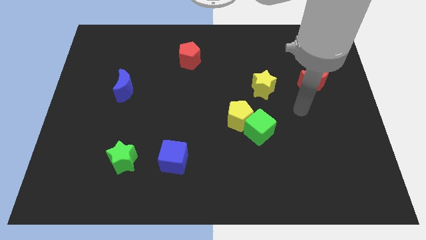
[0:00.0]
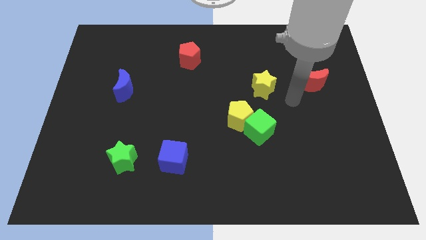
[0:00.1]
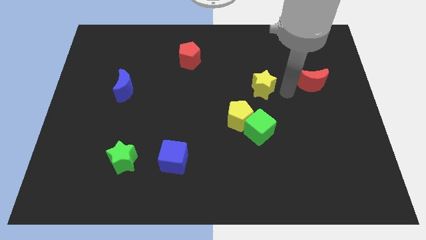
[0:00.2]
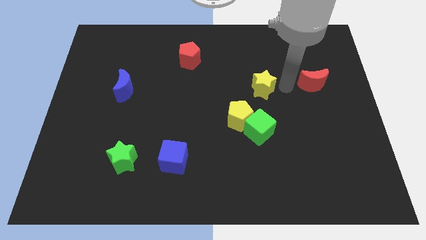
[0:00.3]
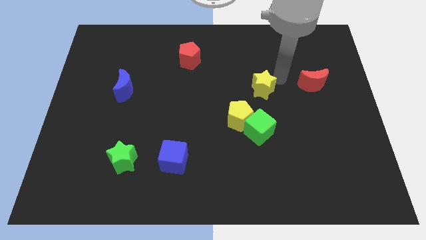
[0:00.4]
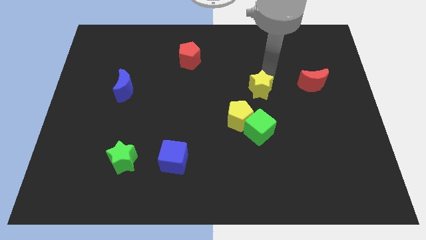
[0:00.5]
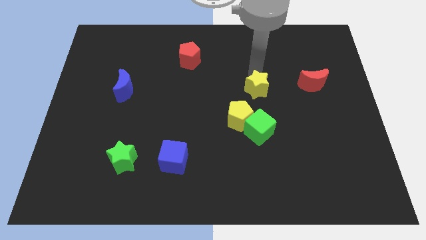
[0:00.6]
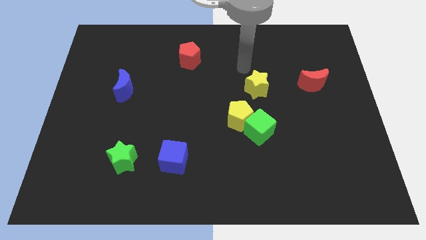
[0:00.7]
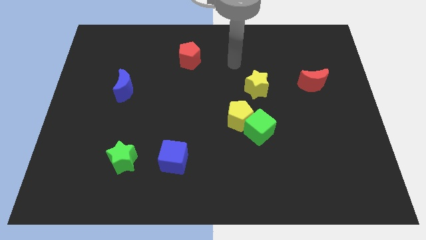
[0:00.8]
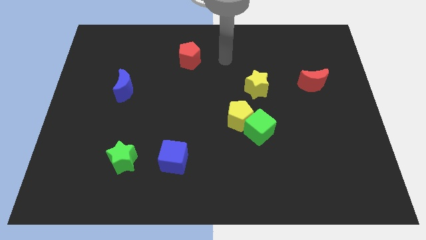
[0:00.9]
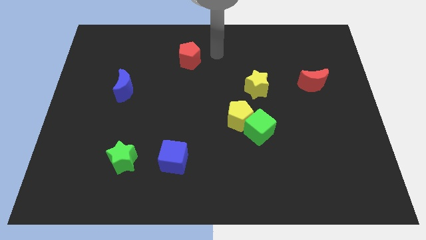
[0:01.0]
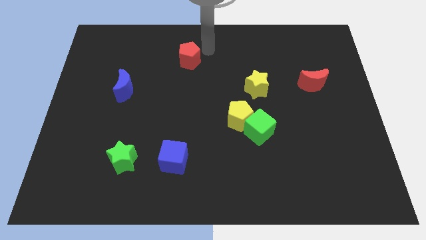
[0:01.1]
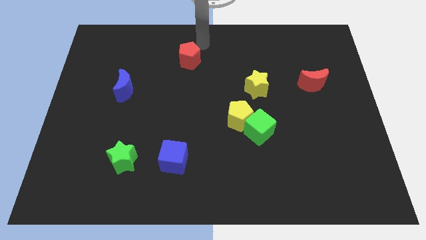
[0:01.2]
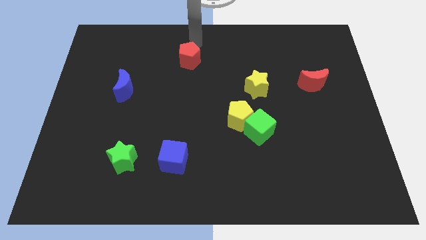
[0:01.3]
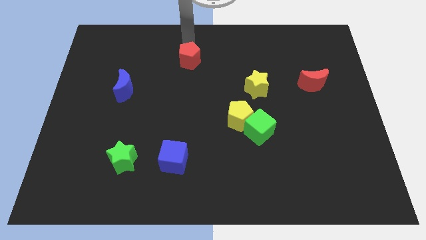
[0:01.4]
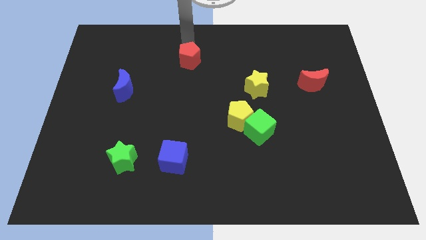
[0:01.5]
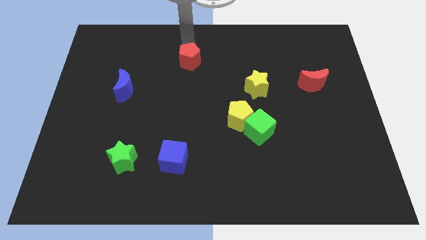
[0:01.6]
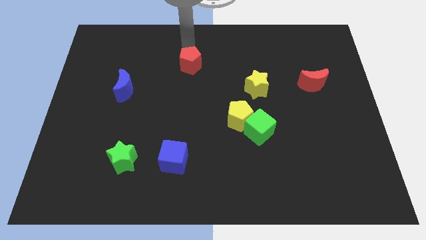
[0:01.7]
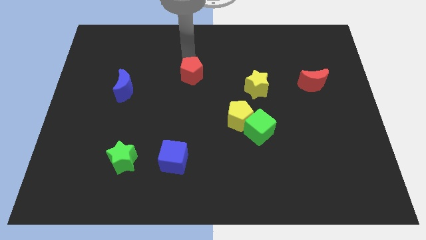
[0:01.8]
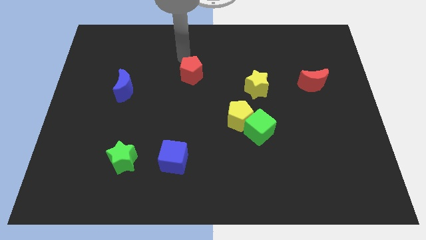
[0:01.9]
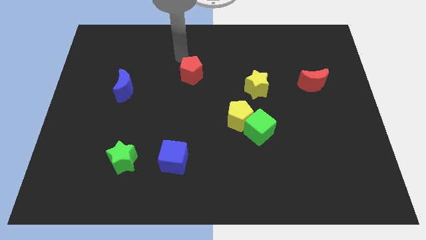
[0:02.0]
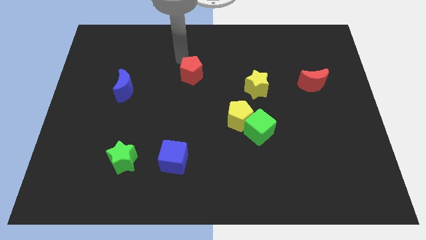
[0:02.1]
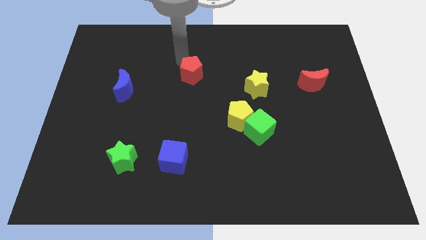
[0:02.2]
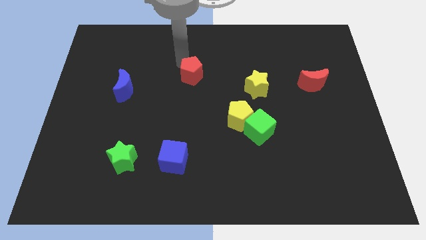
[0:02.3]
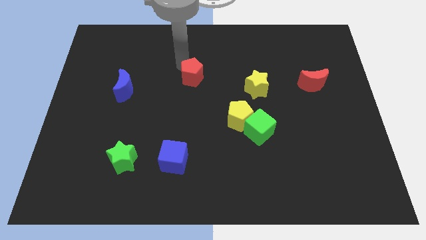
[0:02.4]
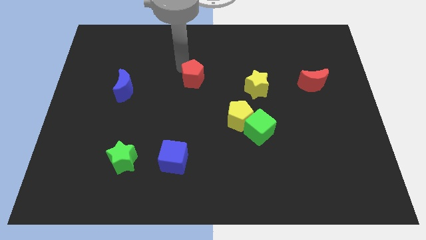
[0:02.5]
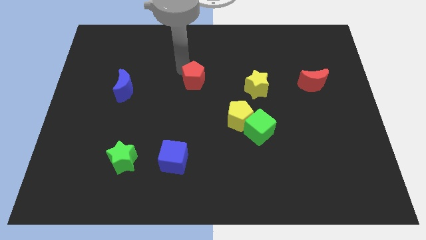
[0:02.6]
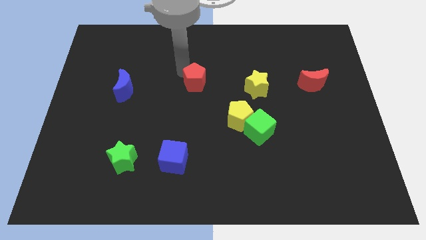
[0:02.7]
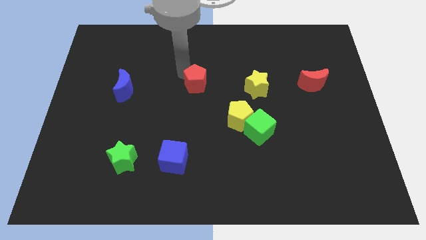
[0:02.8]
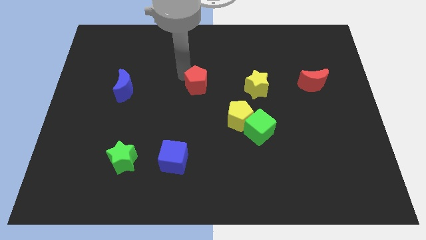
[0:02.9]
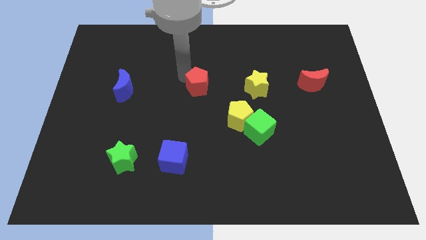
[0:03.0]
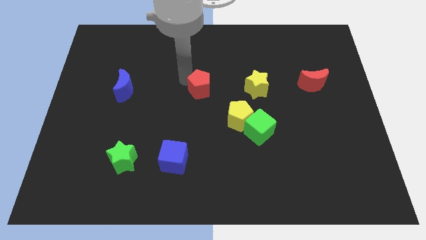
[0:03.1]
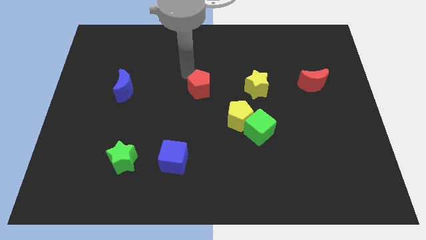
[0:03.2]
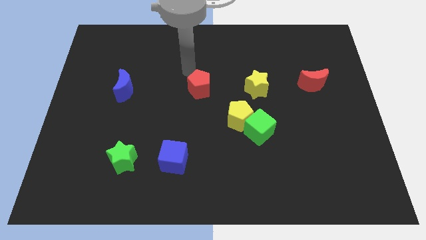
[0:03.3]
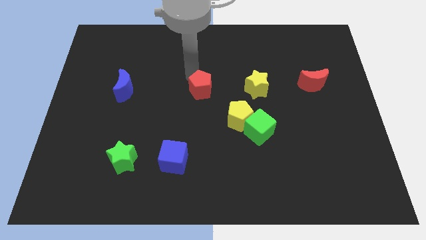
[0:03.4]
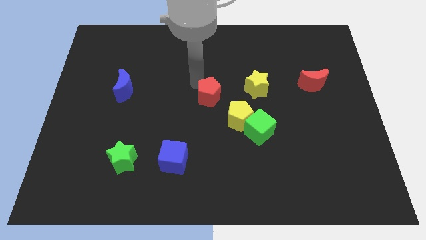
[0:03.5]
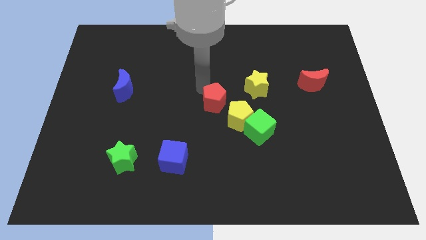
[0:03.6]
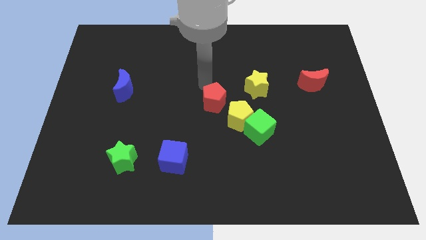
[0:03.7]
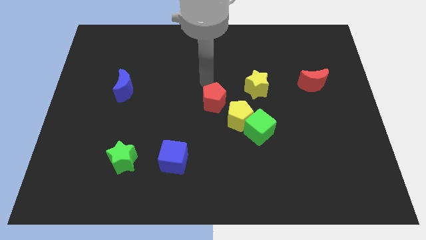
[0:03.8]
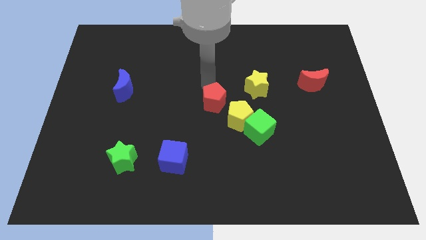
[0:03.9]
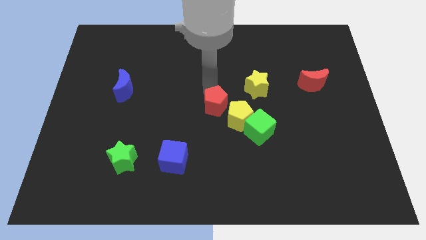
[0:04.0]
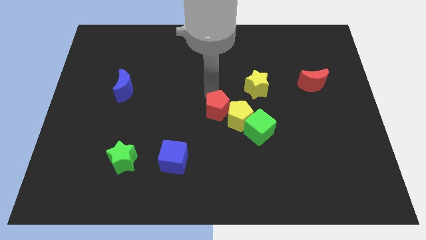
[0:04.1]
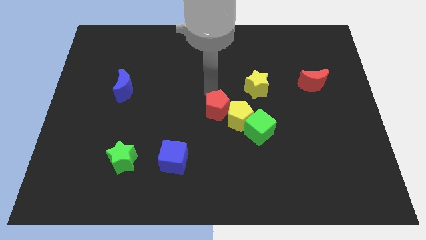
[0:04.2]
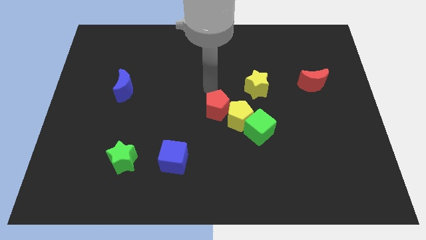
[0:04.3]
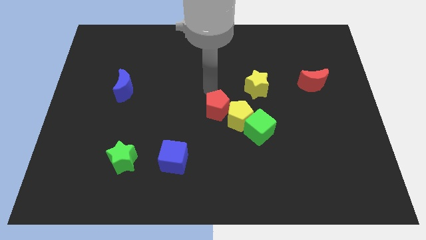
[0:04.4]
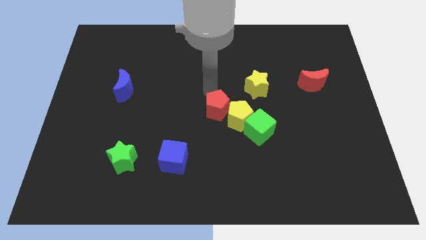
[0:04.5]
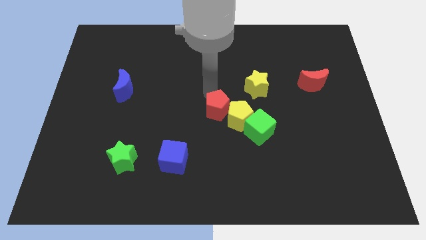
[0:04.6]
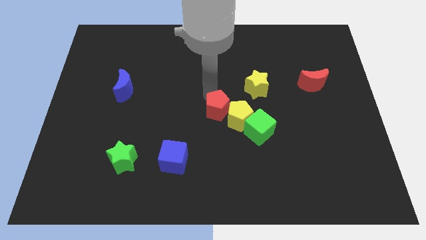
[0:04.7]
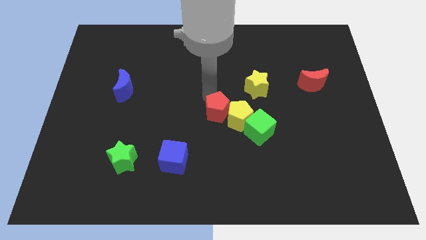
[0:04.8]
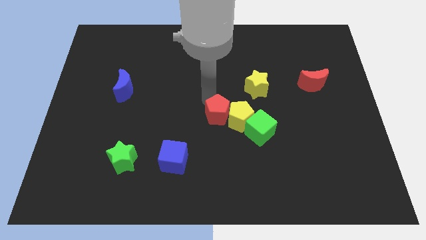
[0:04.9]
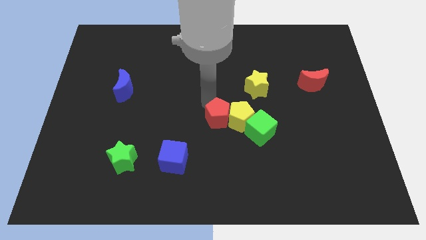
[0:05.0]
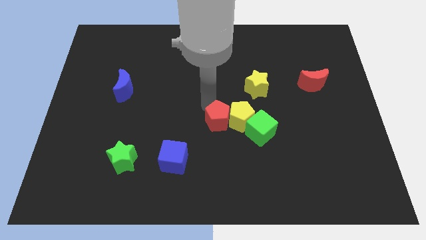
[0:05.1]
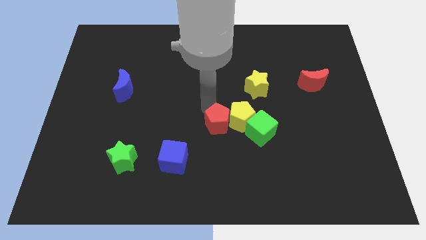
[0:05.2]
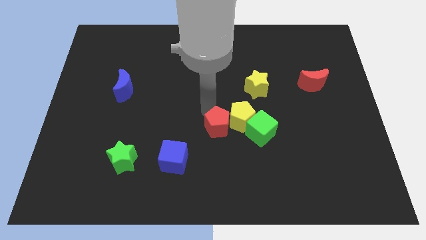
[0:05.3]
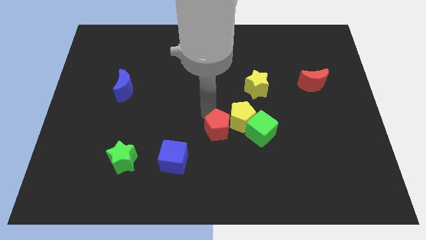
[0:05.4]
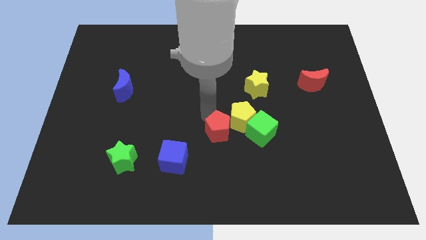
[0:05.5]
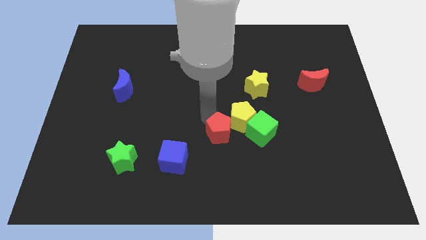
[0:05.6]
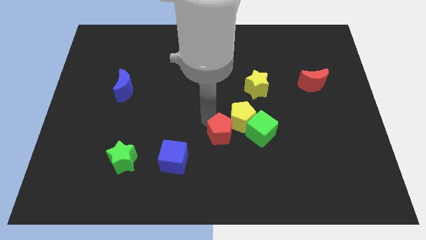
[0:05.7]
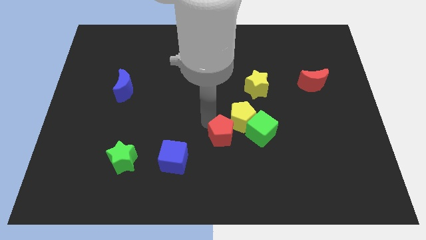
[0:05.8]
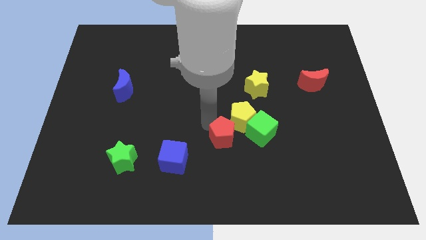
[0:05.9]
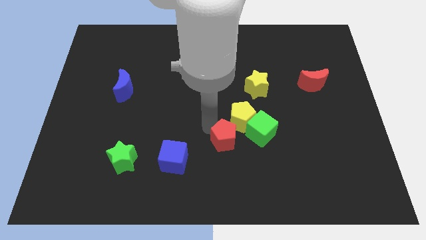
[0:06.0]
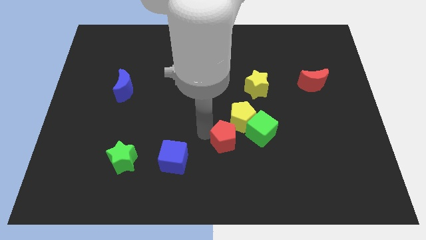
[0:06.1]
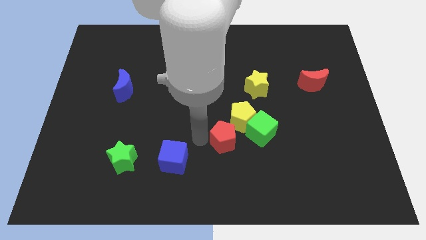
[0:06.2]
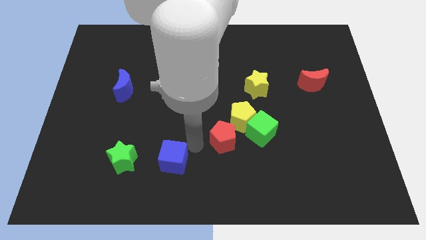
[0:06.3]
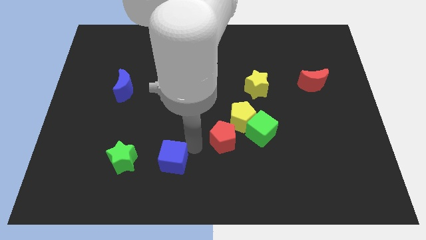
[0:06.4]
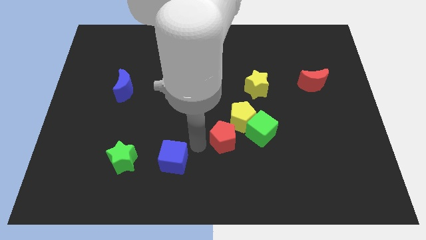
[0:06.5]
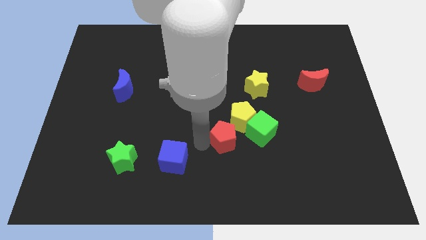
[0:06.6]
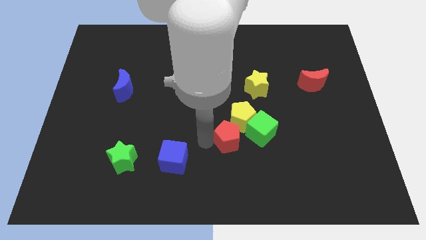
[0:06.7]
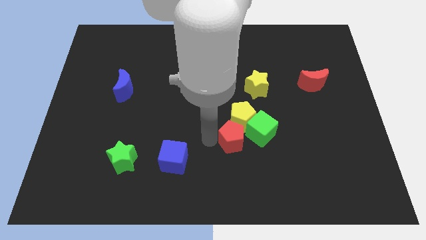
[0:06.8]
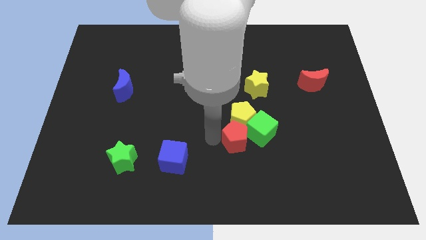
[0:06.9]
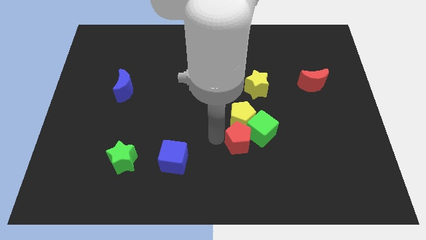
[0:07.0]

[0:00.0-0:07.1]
push the red pentagon towards the green cube

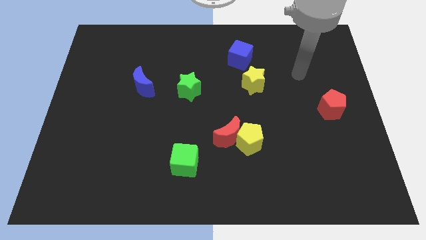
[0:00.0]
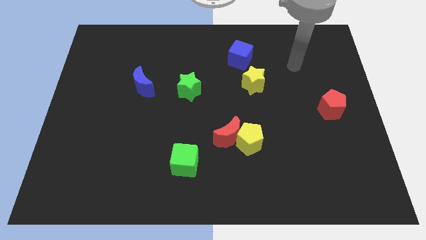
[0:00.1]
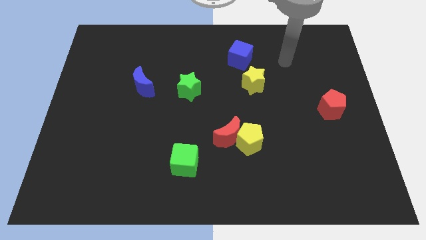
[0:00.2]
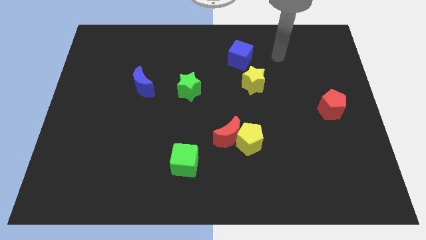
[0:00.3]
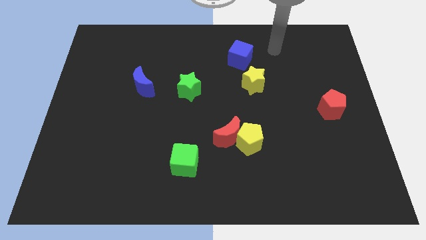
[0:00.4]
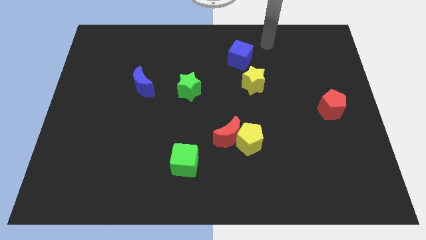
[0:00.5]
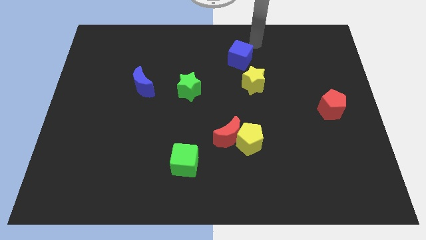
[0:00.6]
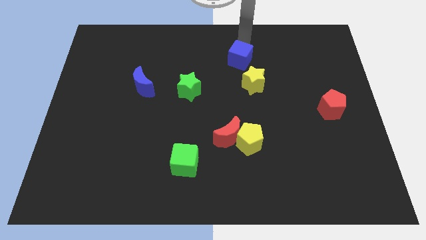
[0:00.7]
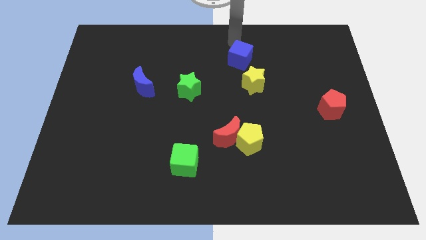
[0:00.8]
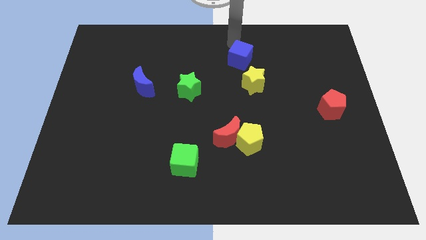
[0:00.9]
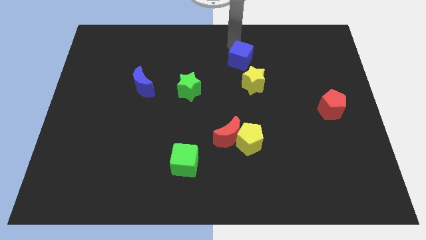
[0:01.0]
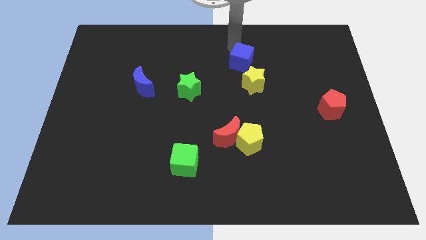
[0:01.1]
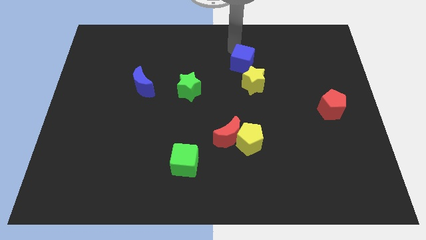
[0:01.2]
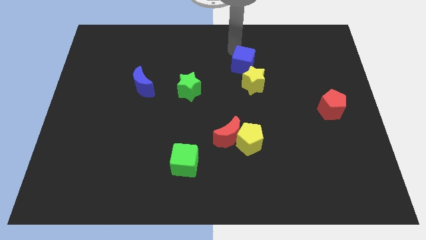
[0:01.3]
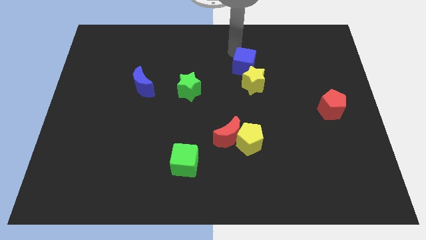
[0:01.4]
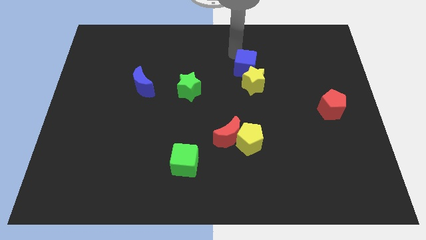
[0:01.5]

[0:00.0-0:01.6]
slide the blue cube next to the yellow star
